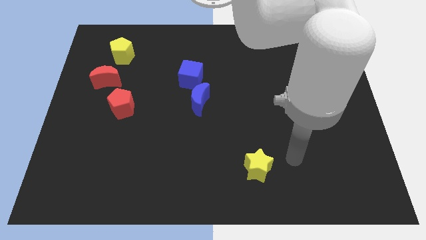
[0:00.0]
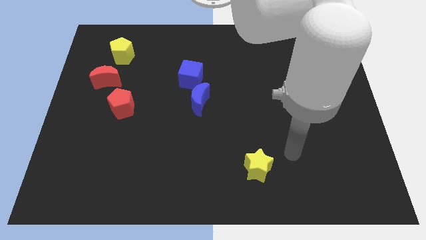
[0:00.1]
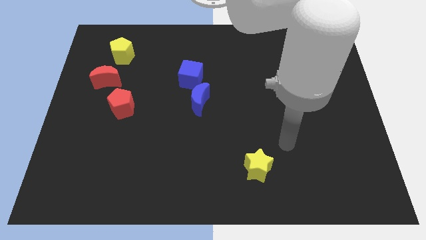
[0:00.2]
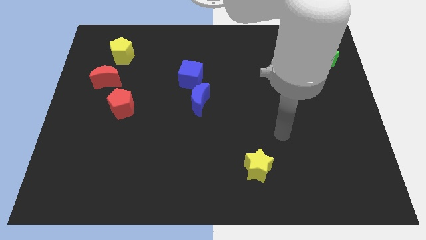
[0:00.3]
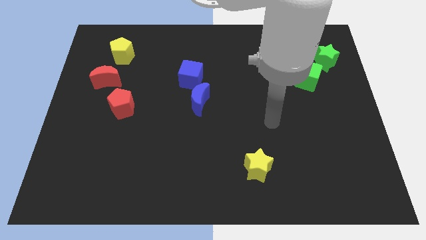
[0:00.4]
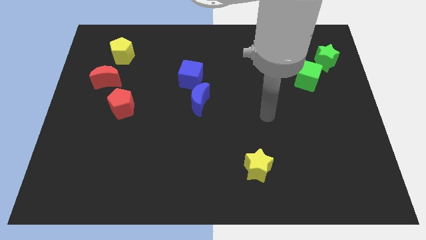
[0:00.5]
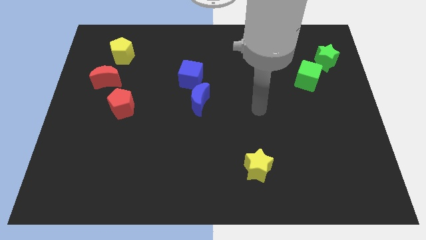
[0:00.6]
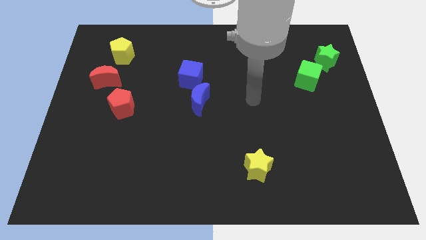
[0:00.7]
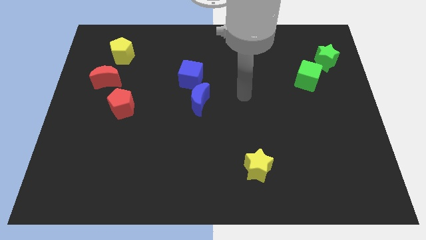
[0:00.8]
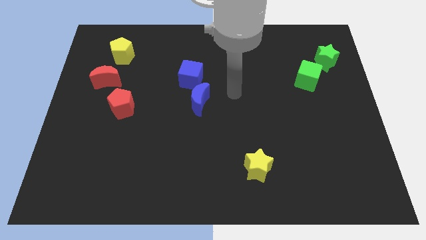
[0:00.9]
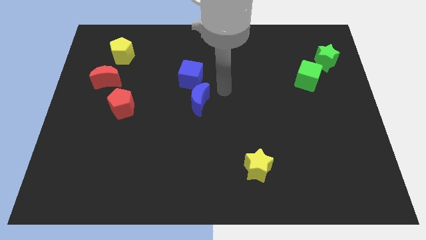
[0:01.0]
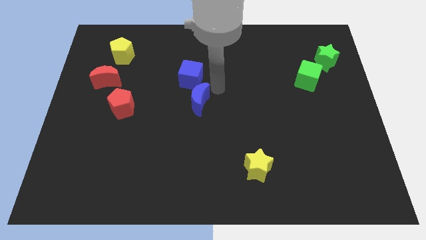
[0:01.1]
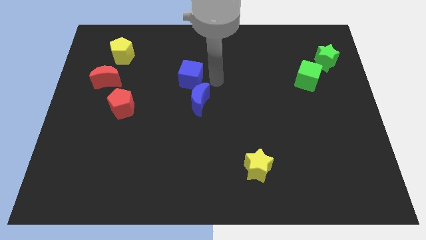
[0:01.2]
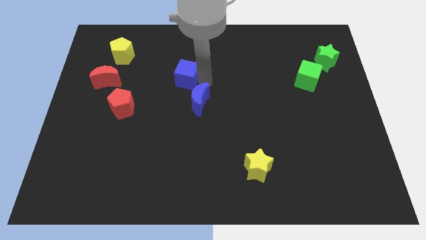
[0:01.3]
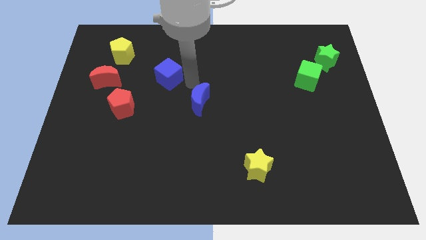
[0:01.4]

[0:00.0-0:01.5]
move the blue moon away from the blue cube

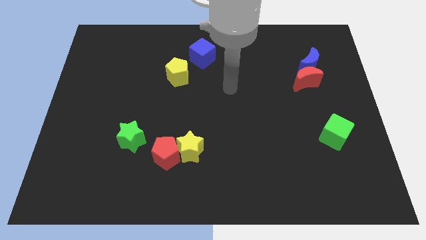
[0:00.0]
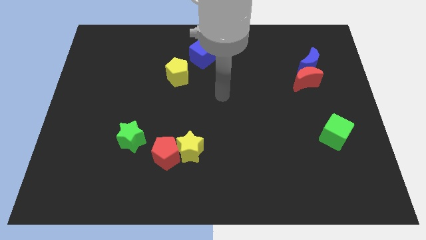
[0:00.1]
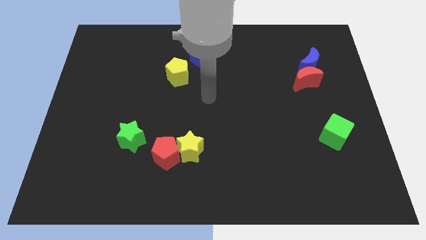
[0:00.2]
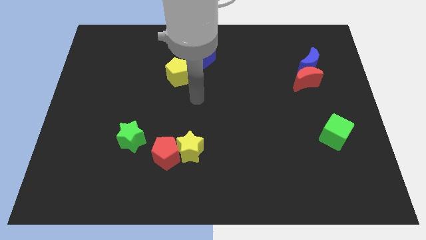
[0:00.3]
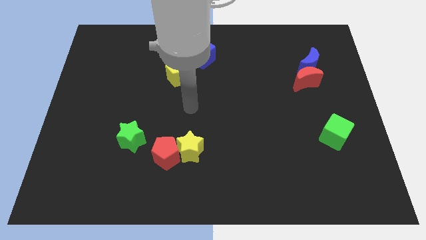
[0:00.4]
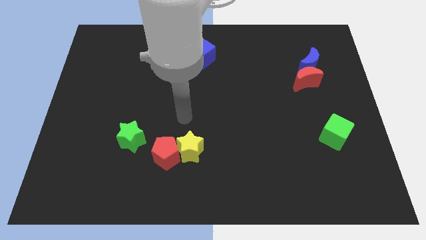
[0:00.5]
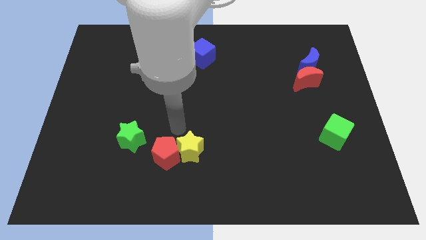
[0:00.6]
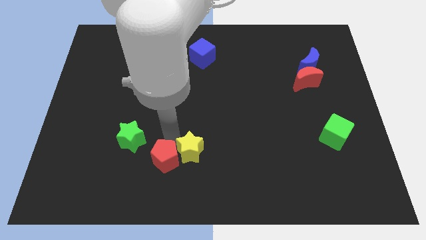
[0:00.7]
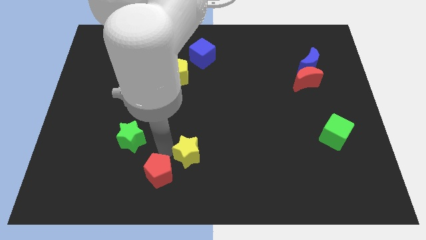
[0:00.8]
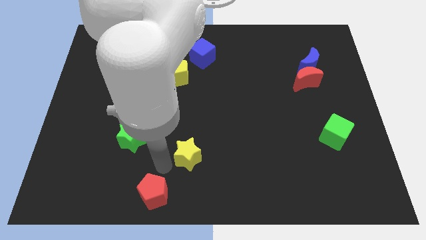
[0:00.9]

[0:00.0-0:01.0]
move the yellow star away from the red pentagon

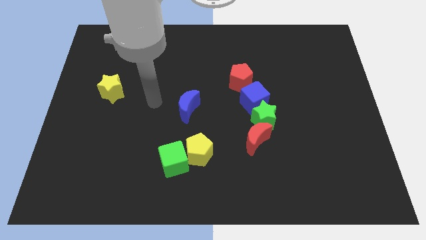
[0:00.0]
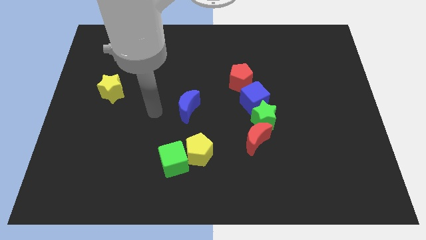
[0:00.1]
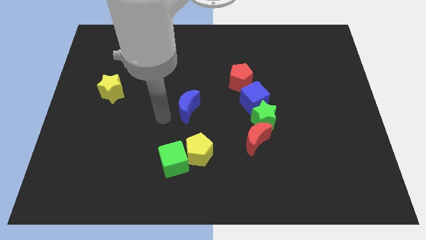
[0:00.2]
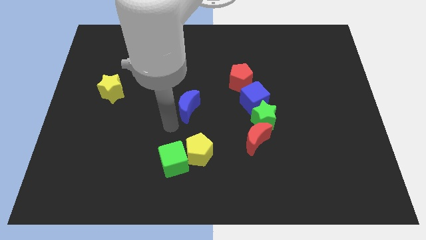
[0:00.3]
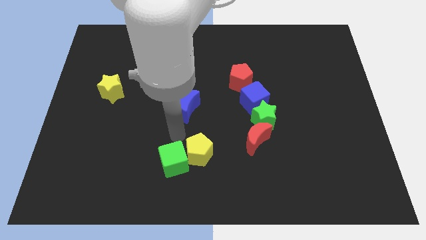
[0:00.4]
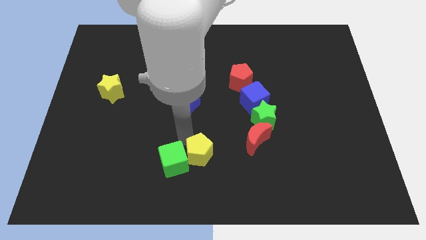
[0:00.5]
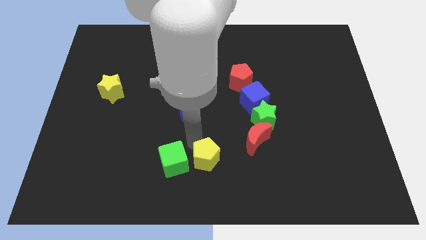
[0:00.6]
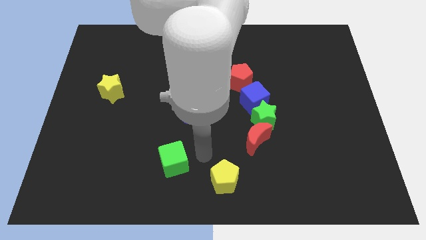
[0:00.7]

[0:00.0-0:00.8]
separate the green cube from the yellow pentagon

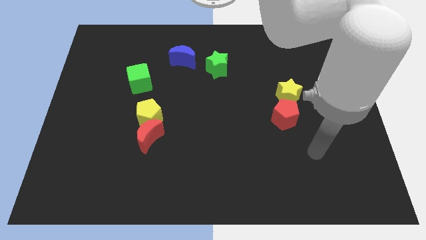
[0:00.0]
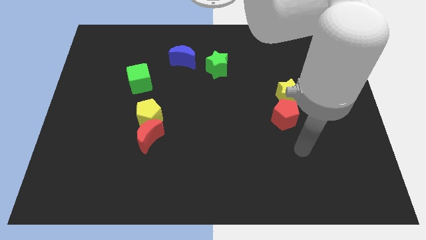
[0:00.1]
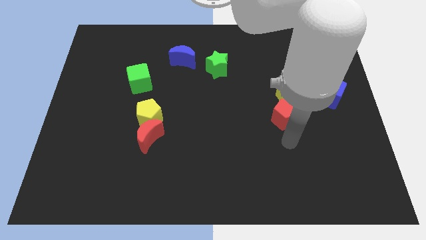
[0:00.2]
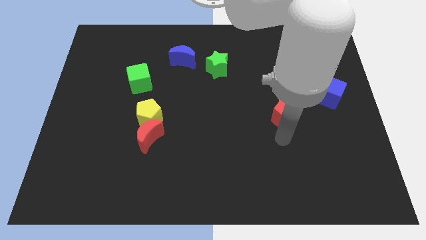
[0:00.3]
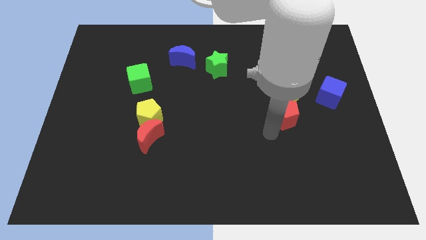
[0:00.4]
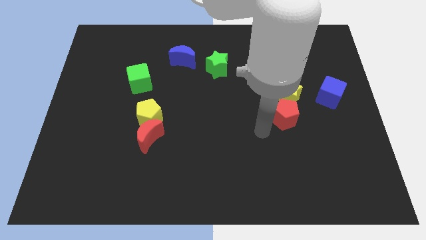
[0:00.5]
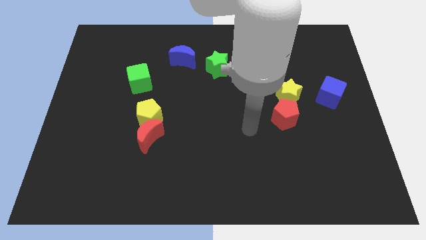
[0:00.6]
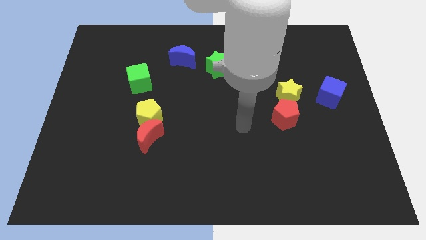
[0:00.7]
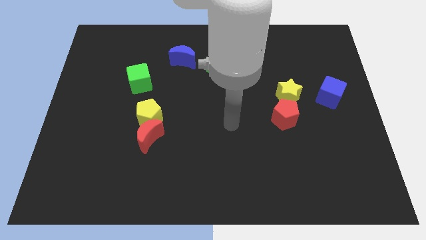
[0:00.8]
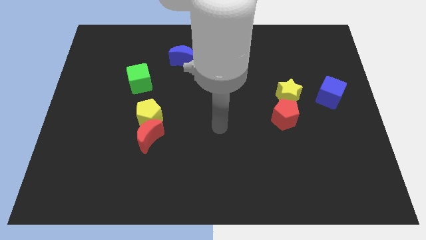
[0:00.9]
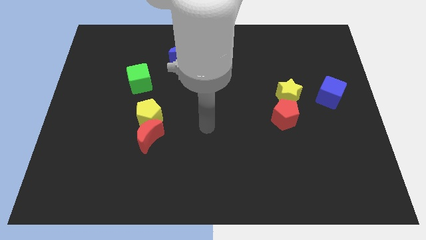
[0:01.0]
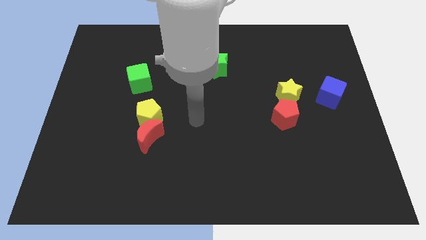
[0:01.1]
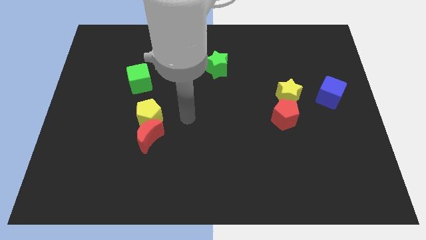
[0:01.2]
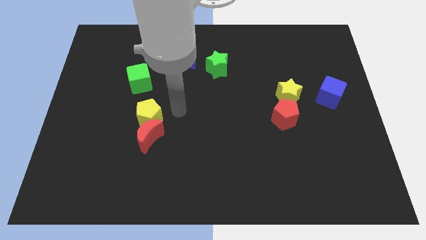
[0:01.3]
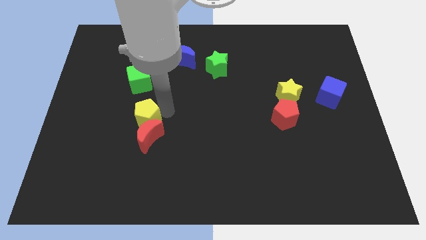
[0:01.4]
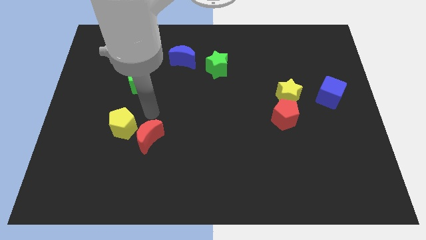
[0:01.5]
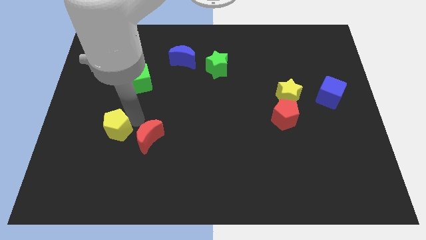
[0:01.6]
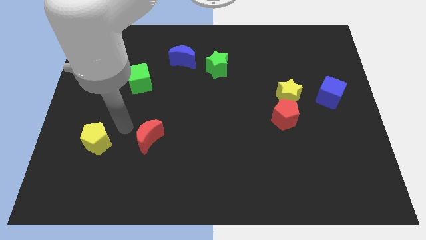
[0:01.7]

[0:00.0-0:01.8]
separate the red moon from the yellow pentagon

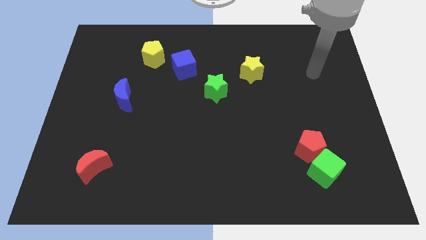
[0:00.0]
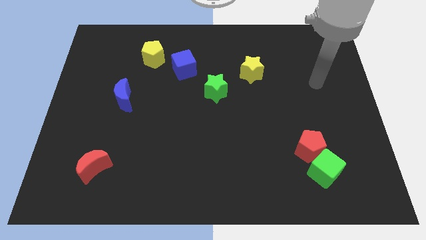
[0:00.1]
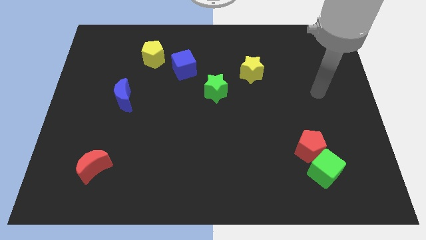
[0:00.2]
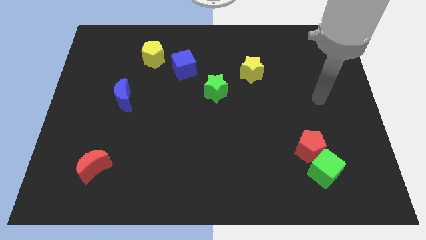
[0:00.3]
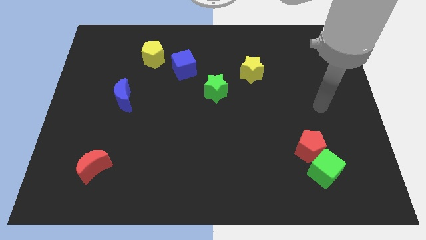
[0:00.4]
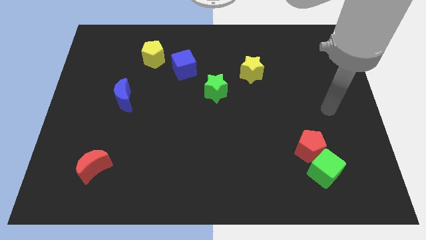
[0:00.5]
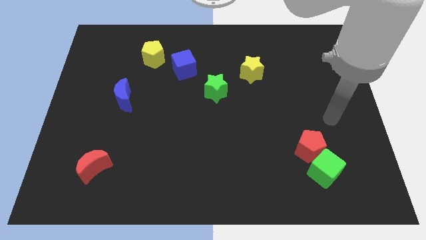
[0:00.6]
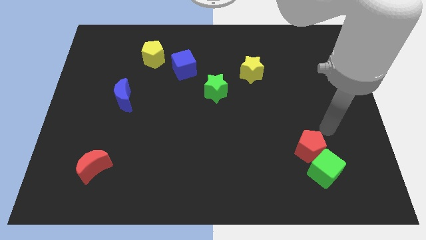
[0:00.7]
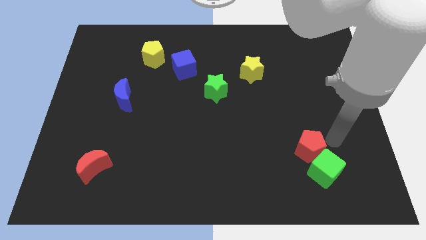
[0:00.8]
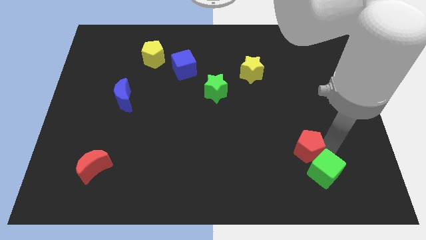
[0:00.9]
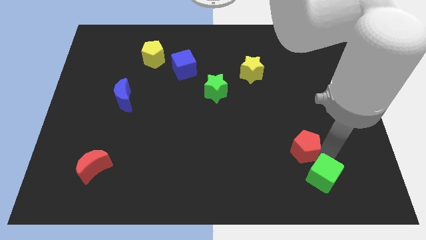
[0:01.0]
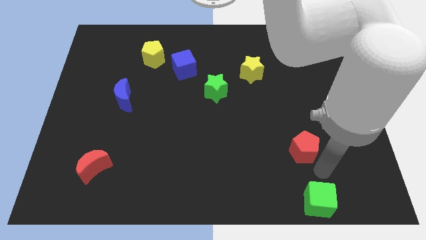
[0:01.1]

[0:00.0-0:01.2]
separate the red pentagon from the green cube

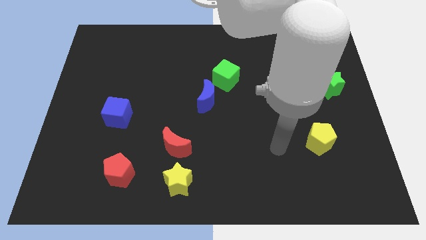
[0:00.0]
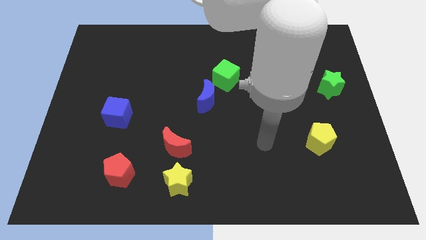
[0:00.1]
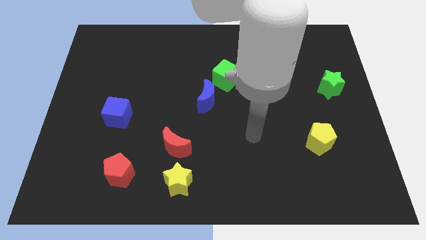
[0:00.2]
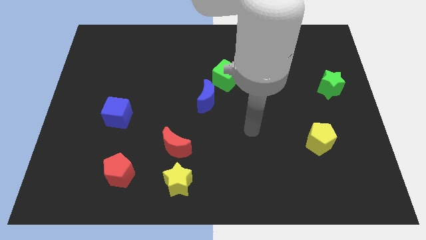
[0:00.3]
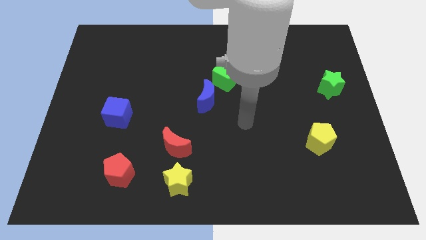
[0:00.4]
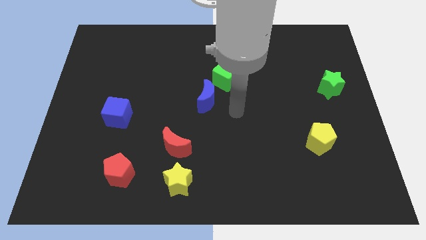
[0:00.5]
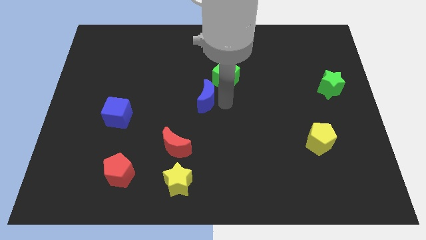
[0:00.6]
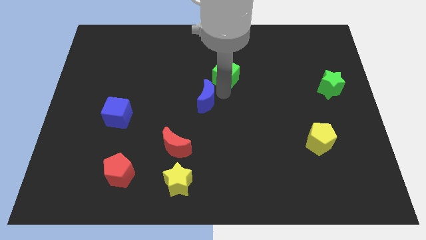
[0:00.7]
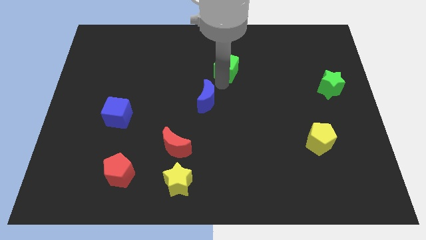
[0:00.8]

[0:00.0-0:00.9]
move the blue moon away from the green cube

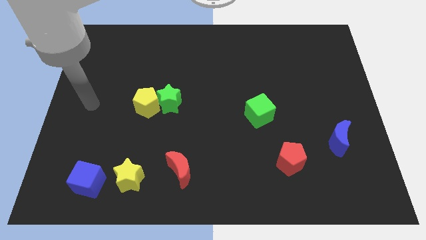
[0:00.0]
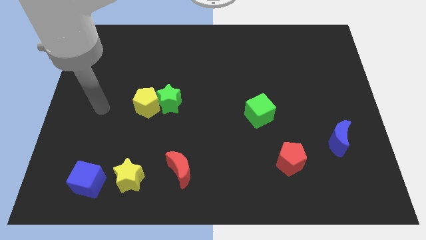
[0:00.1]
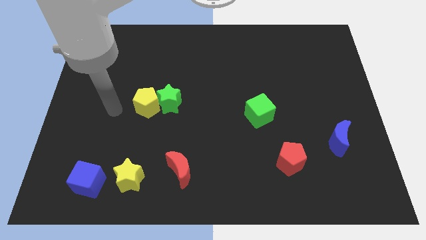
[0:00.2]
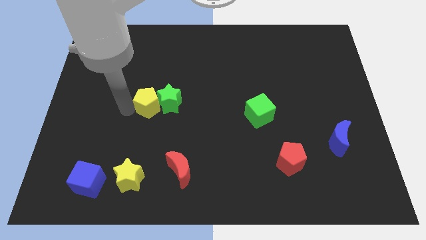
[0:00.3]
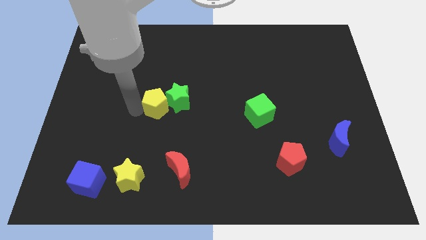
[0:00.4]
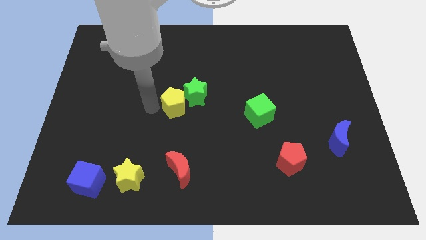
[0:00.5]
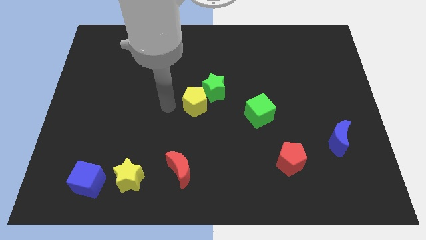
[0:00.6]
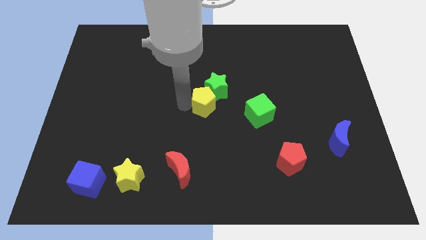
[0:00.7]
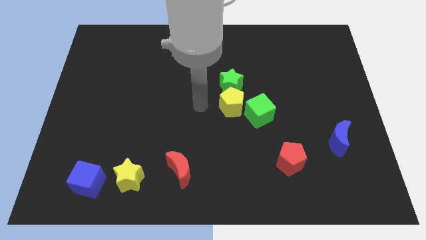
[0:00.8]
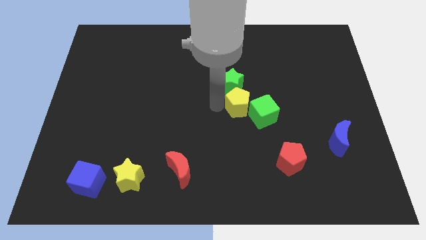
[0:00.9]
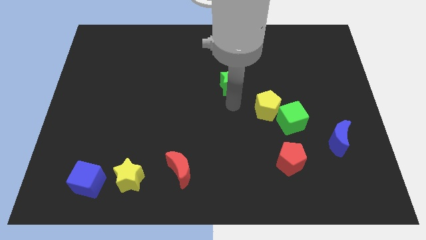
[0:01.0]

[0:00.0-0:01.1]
separate the green star from the yellow pentagon

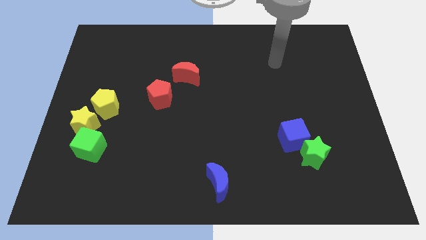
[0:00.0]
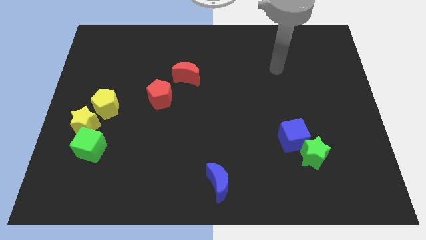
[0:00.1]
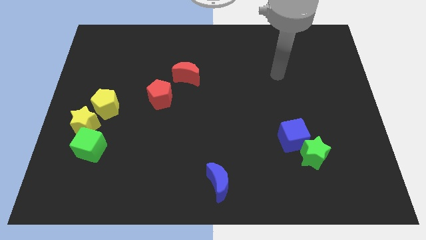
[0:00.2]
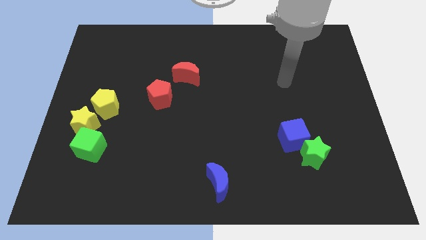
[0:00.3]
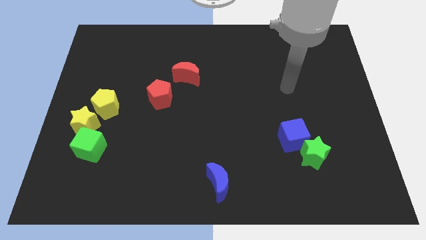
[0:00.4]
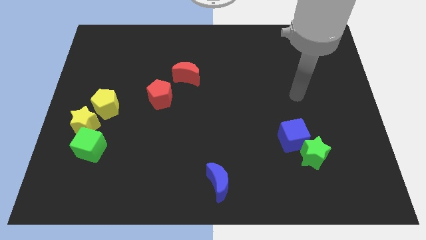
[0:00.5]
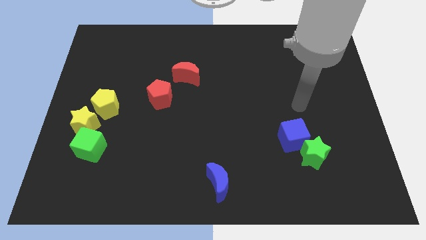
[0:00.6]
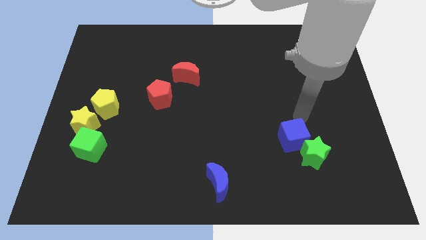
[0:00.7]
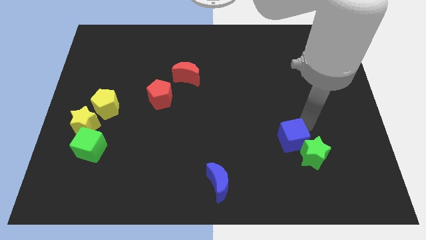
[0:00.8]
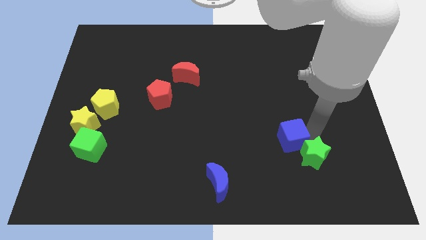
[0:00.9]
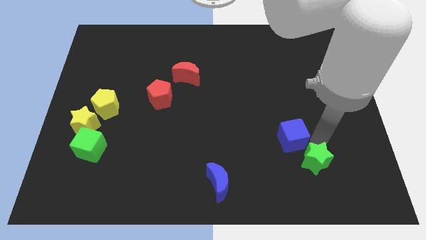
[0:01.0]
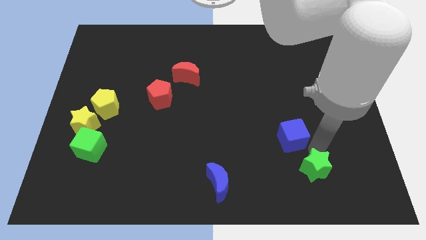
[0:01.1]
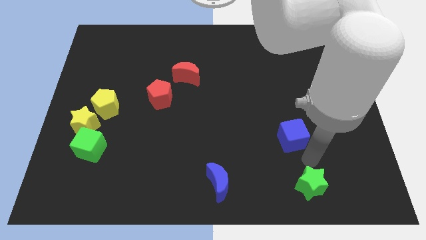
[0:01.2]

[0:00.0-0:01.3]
pull the blue cube apart from the green star
